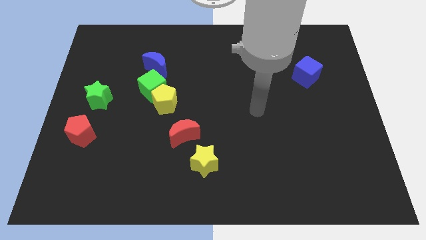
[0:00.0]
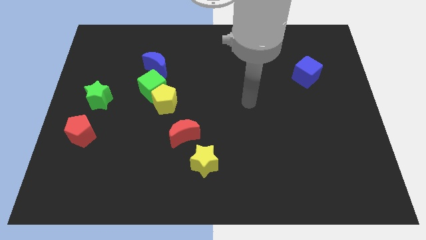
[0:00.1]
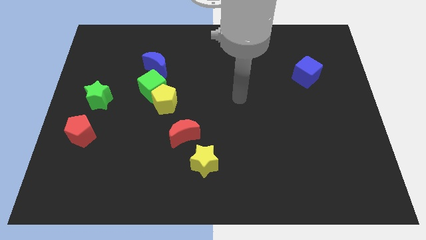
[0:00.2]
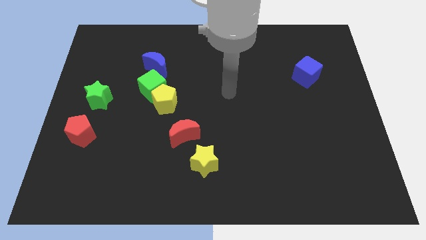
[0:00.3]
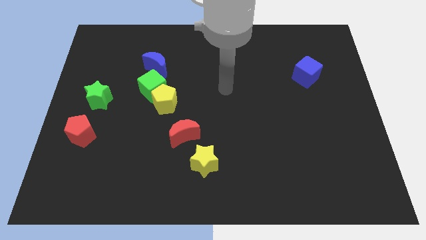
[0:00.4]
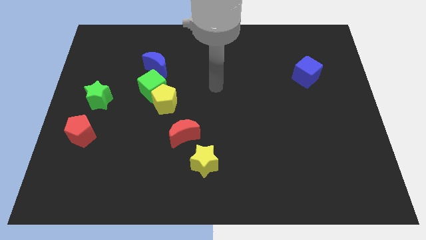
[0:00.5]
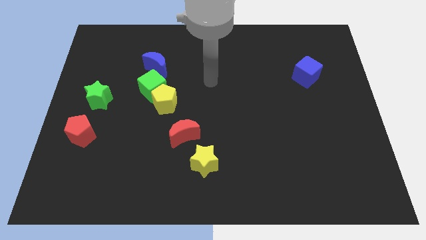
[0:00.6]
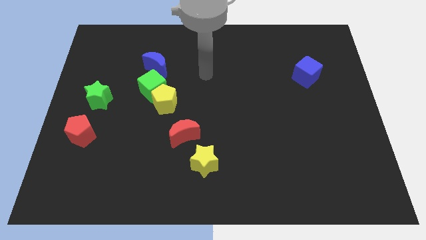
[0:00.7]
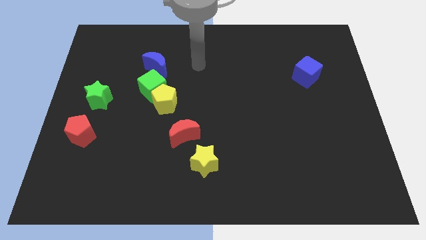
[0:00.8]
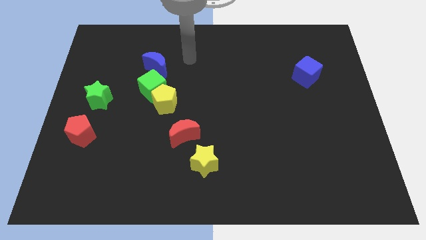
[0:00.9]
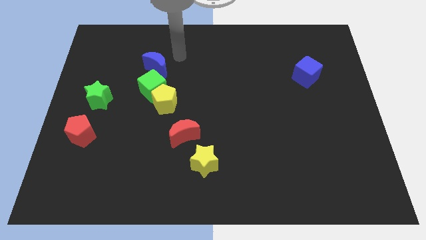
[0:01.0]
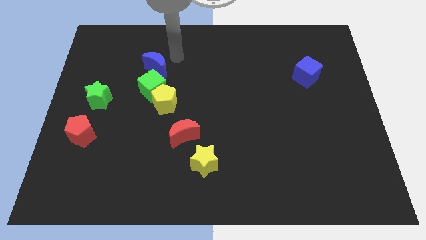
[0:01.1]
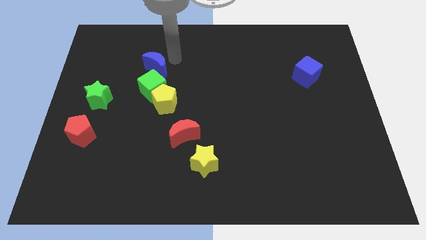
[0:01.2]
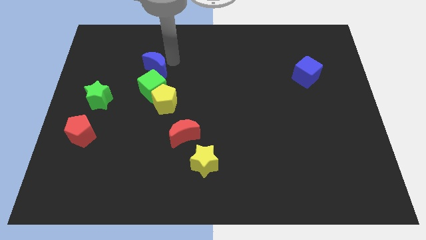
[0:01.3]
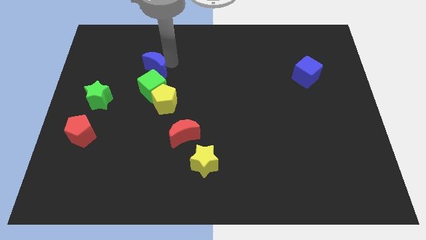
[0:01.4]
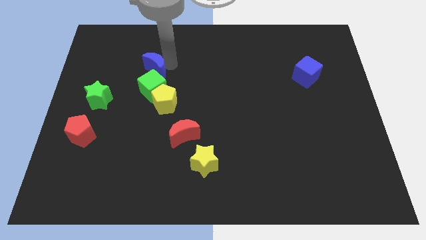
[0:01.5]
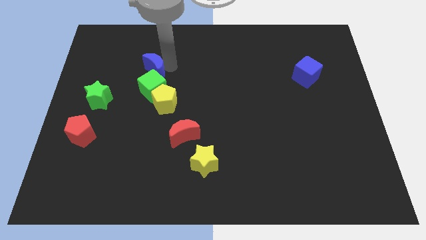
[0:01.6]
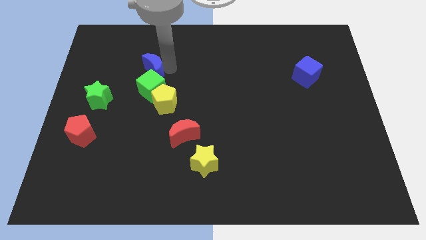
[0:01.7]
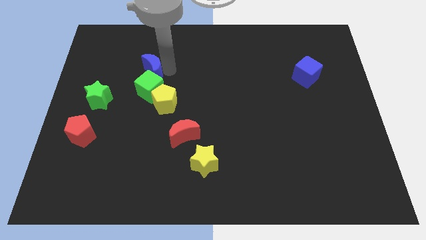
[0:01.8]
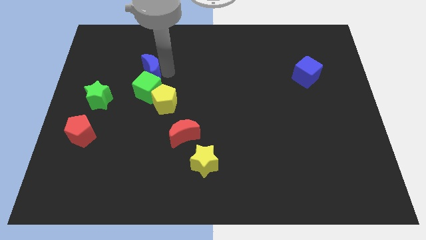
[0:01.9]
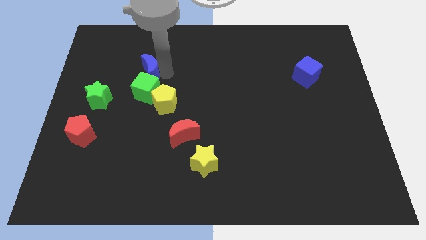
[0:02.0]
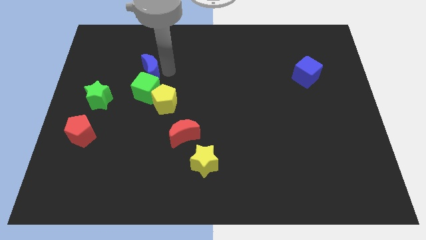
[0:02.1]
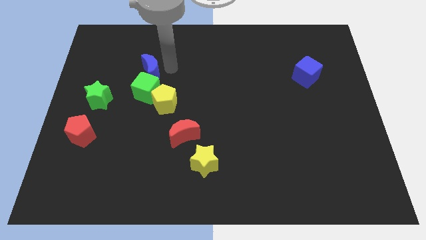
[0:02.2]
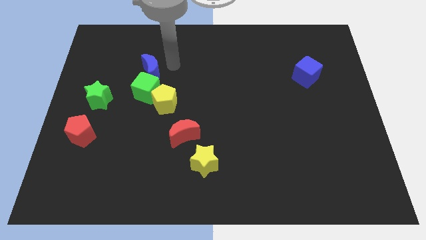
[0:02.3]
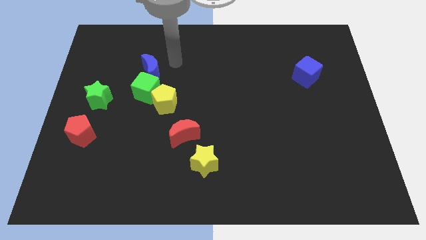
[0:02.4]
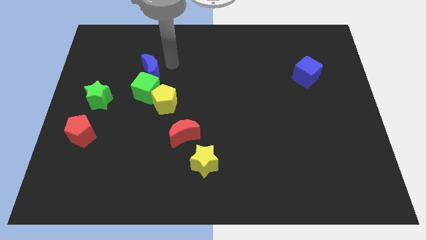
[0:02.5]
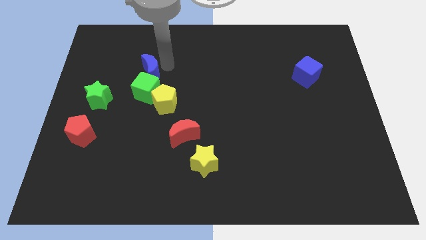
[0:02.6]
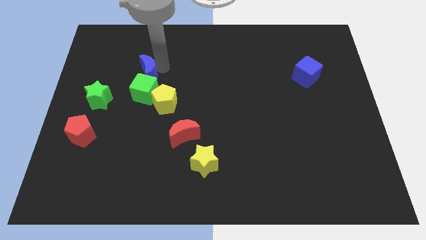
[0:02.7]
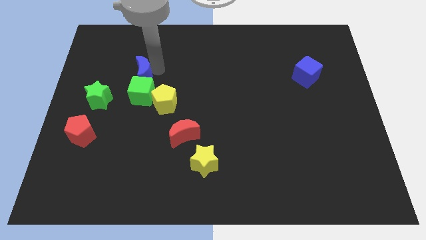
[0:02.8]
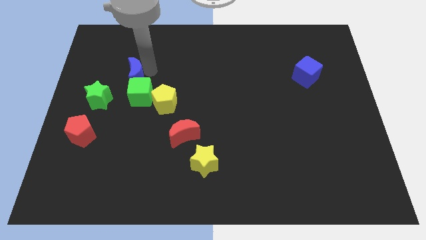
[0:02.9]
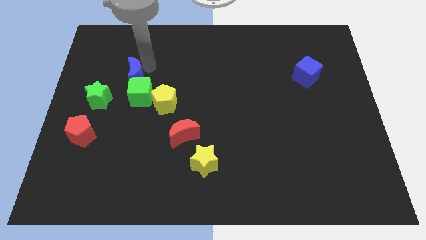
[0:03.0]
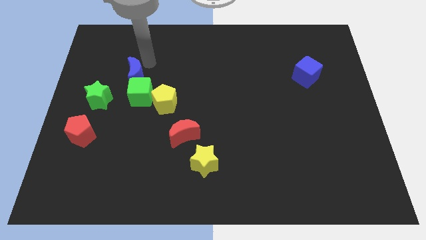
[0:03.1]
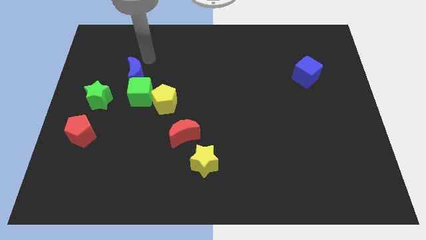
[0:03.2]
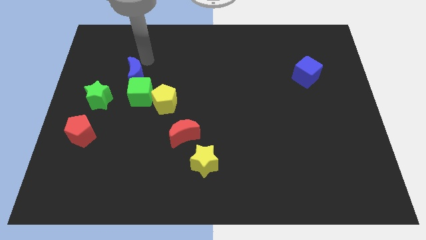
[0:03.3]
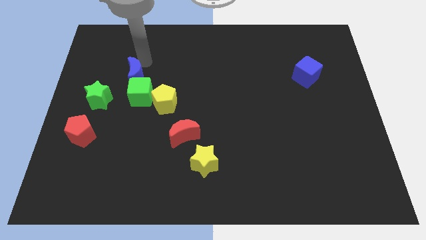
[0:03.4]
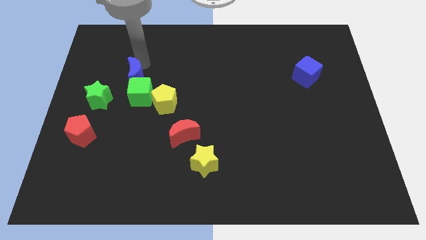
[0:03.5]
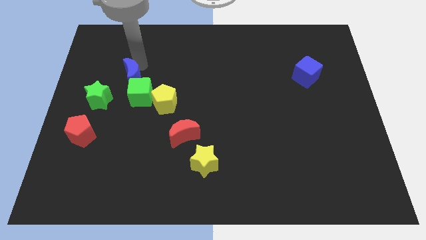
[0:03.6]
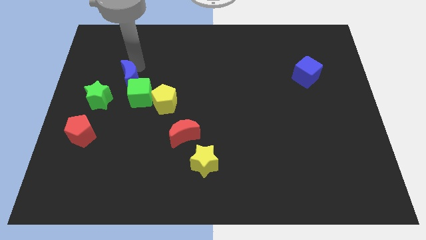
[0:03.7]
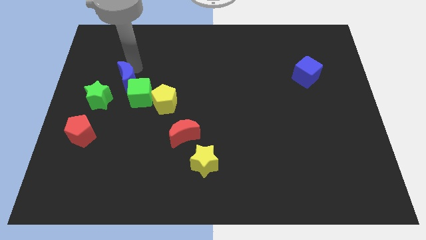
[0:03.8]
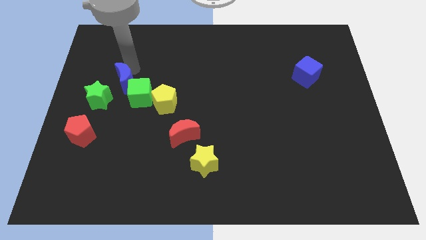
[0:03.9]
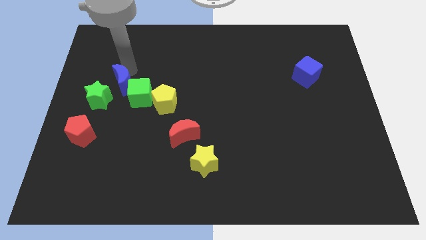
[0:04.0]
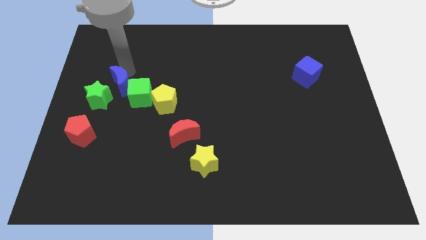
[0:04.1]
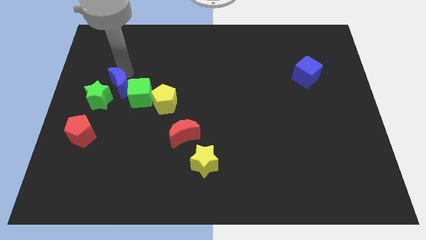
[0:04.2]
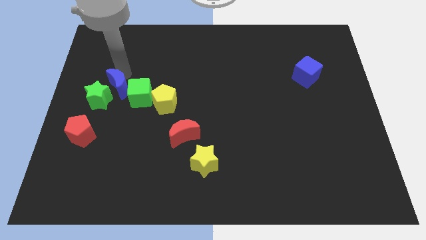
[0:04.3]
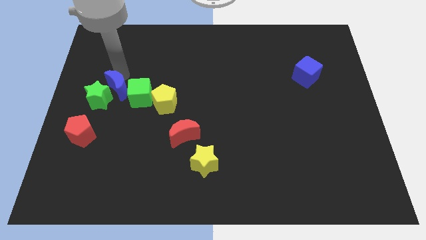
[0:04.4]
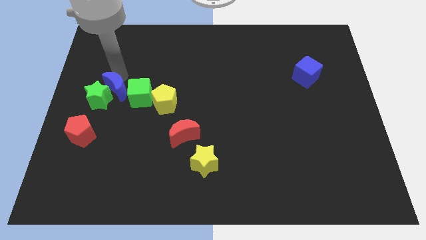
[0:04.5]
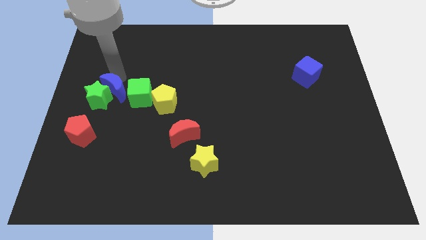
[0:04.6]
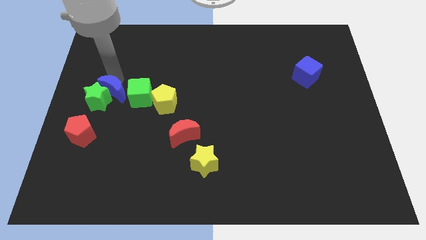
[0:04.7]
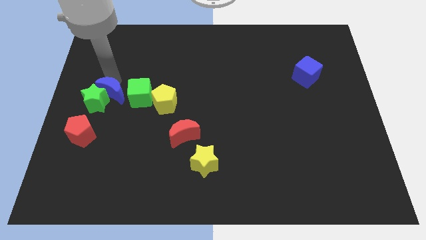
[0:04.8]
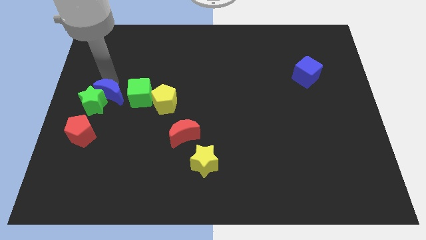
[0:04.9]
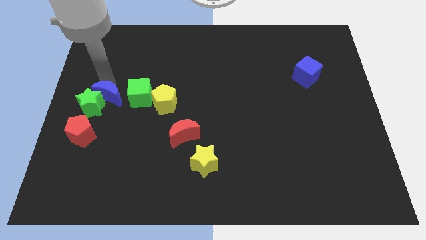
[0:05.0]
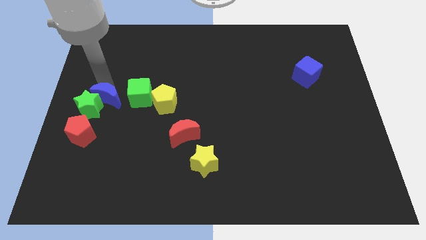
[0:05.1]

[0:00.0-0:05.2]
push the blue moon diagonally up and to the right of the red pentagon

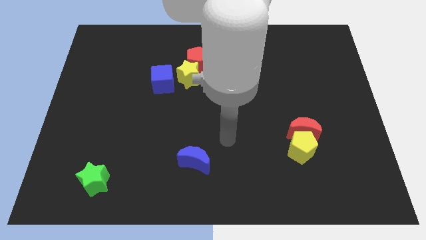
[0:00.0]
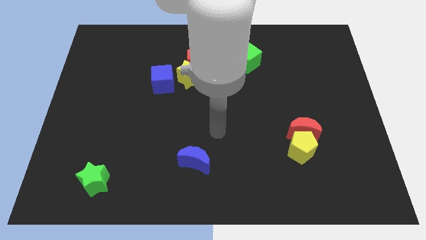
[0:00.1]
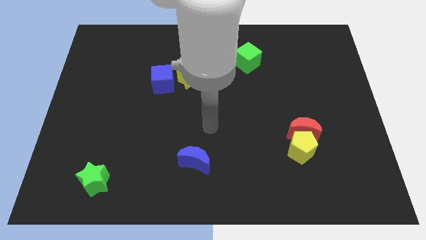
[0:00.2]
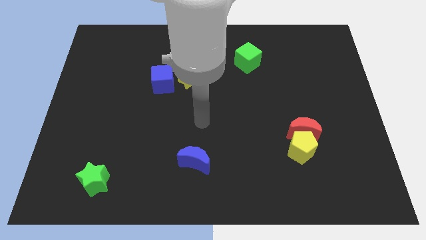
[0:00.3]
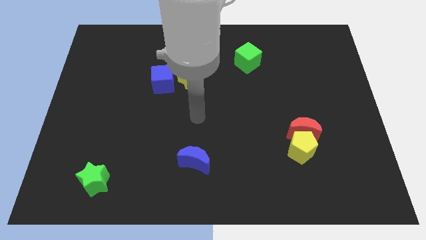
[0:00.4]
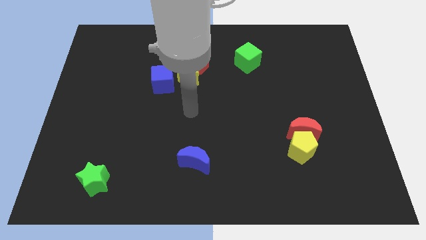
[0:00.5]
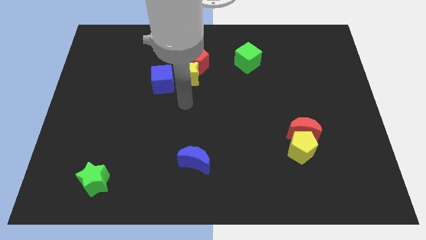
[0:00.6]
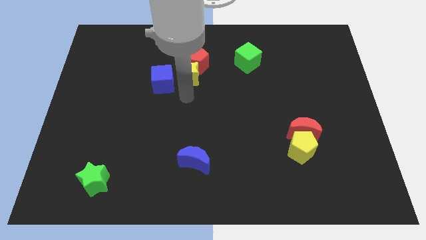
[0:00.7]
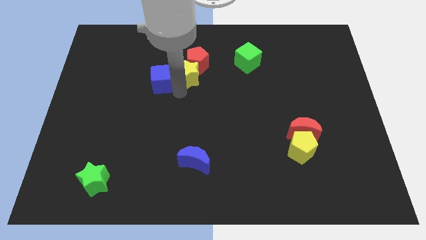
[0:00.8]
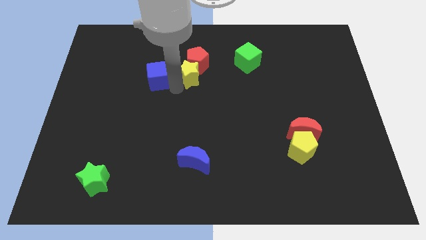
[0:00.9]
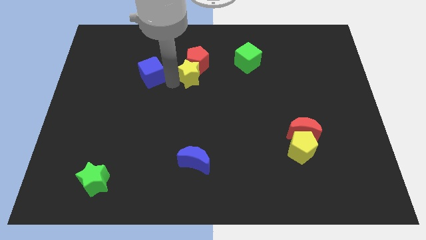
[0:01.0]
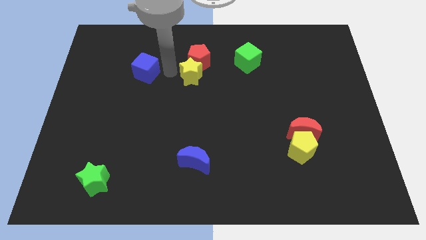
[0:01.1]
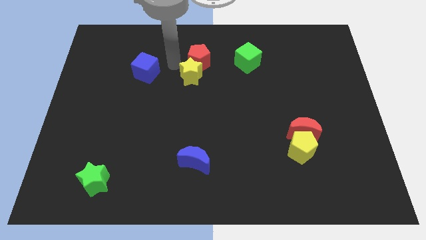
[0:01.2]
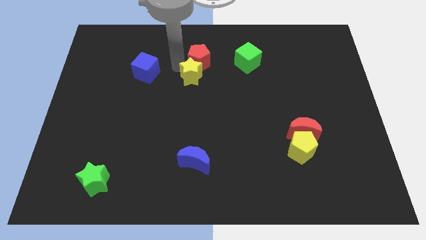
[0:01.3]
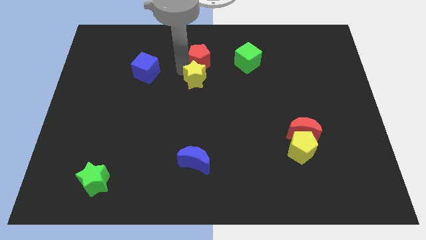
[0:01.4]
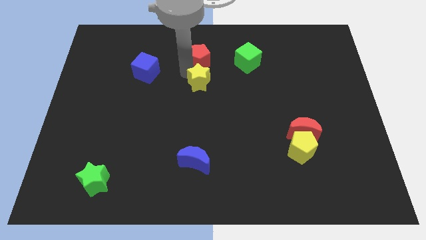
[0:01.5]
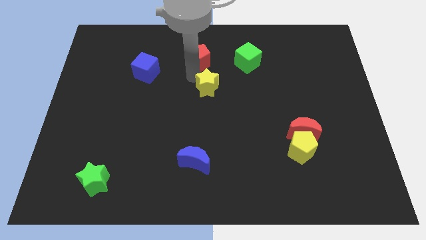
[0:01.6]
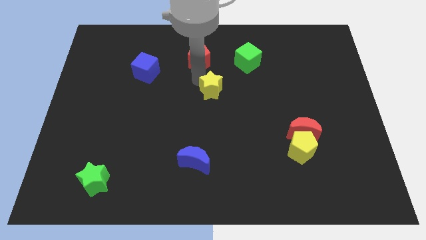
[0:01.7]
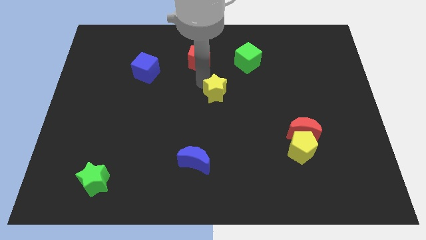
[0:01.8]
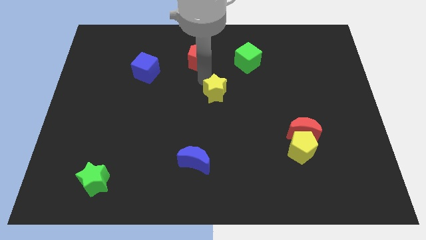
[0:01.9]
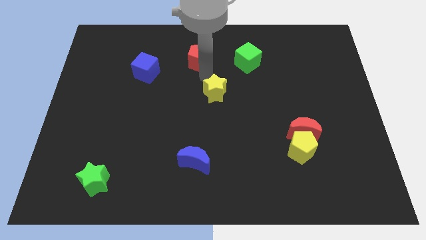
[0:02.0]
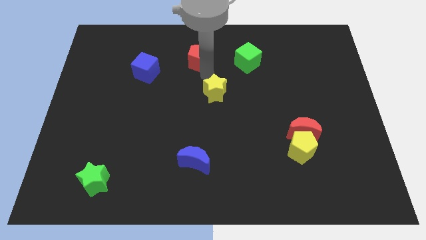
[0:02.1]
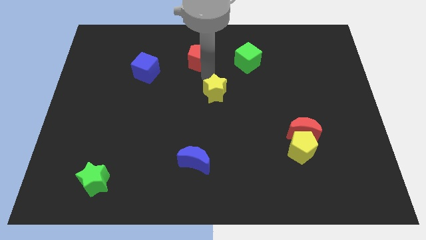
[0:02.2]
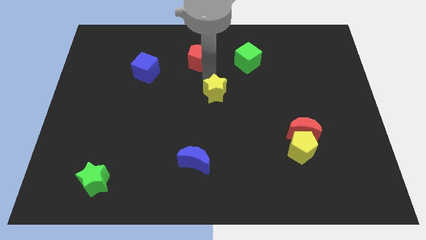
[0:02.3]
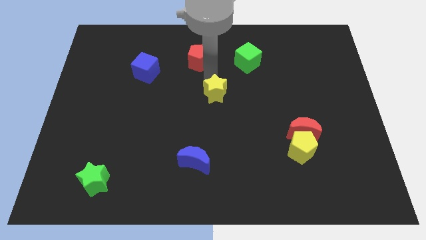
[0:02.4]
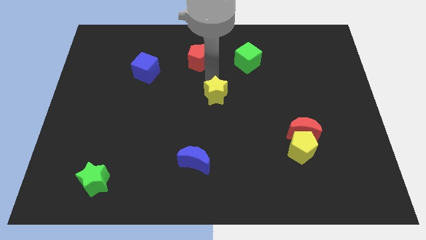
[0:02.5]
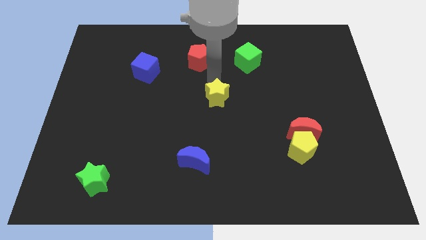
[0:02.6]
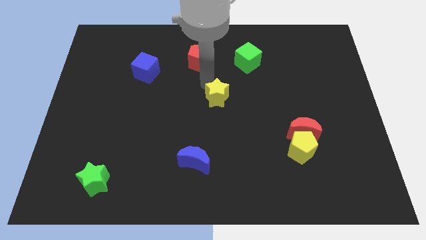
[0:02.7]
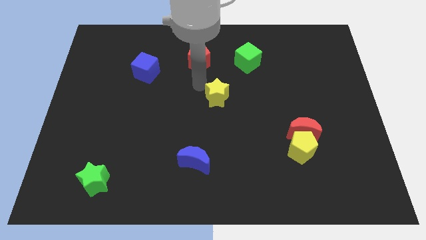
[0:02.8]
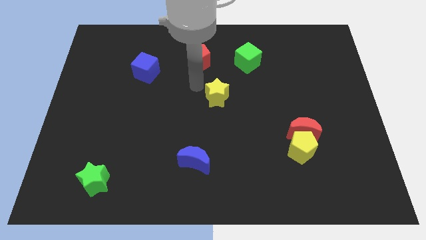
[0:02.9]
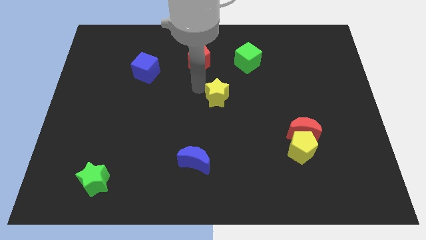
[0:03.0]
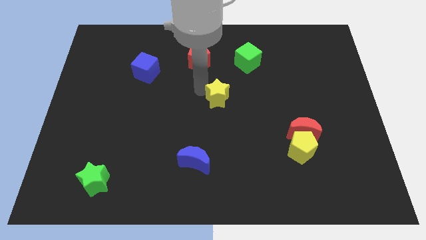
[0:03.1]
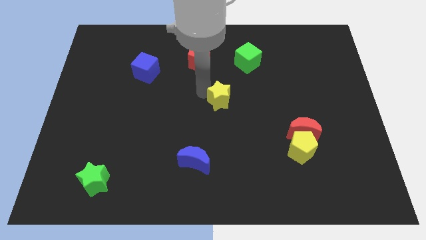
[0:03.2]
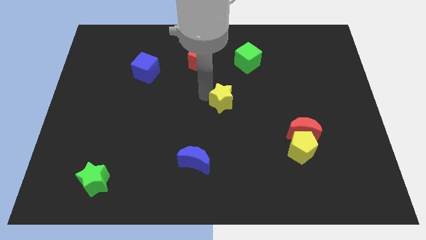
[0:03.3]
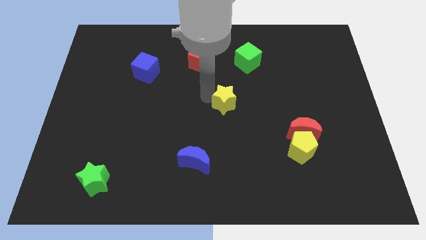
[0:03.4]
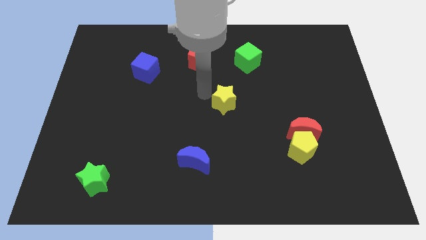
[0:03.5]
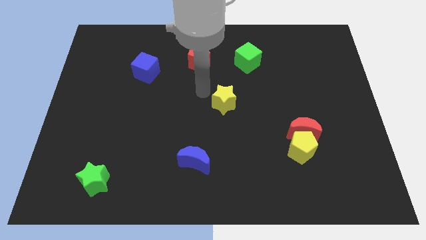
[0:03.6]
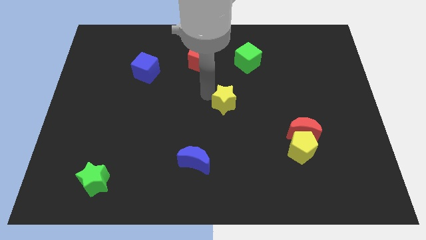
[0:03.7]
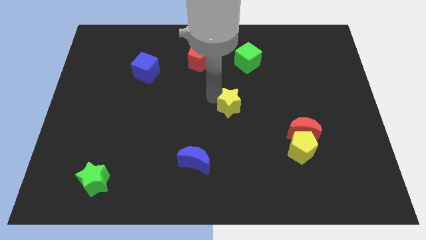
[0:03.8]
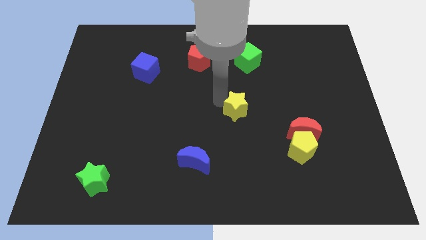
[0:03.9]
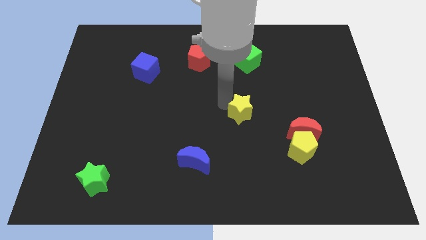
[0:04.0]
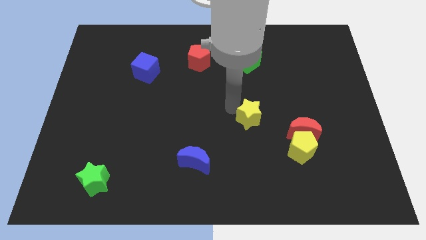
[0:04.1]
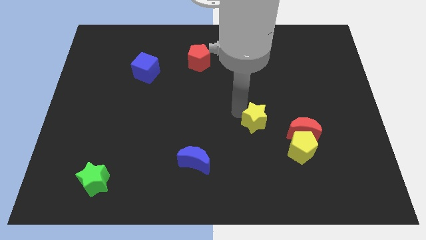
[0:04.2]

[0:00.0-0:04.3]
push the yellow star to the top left of the yellow pentagon
